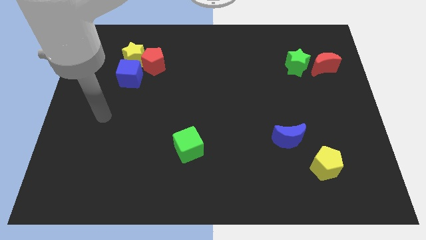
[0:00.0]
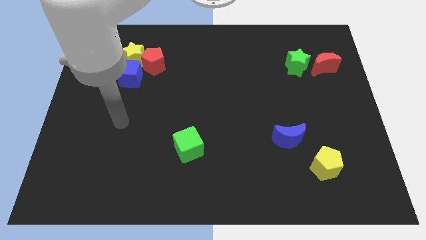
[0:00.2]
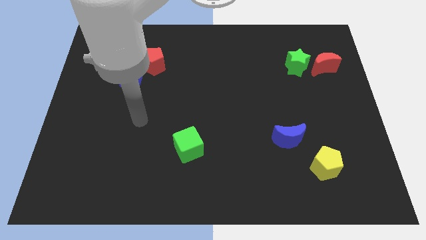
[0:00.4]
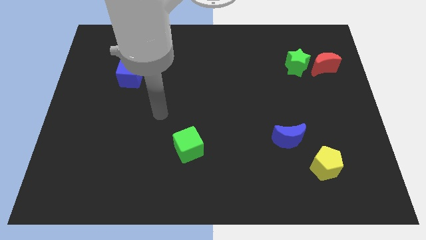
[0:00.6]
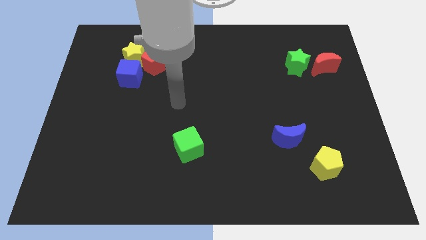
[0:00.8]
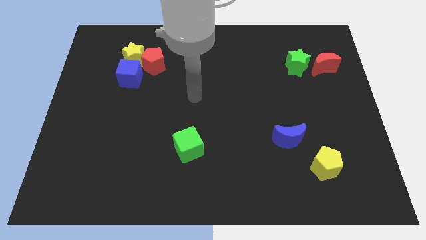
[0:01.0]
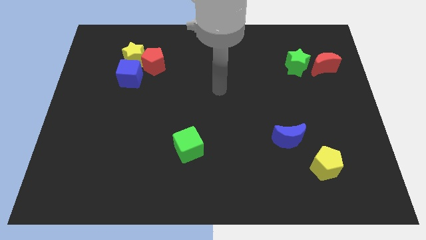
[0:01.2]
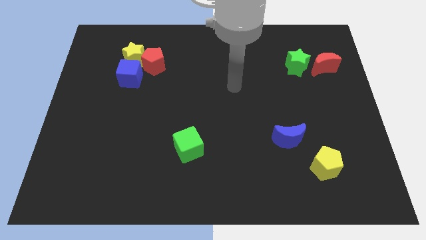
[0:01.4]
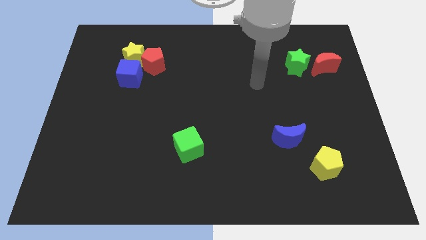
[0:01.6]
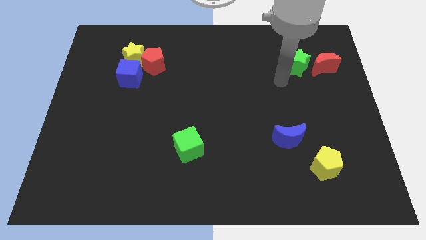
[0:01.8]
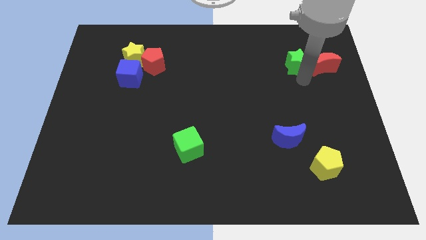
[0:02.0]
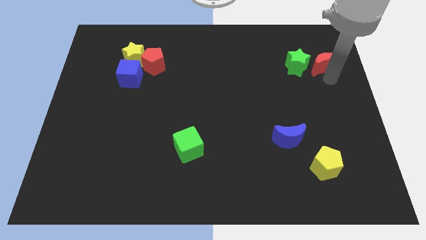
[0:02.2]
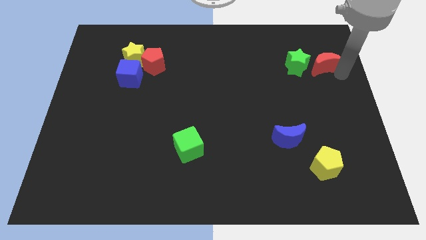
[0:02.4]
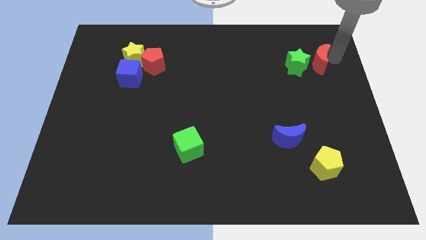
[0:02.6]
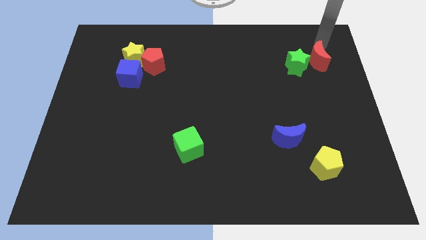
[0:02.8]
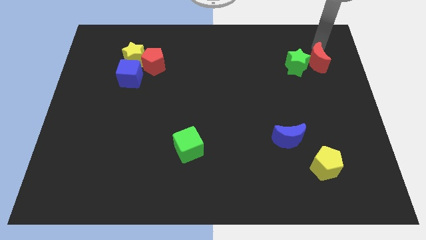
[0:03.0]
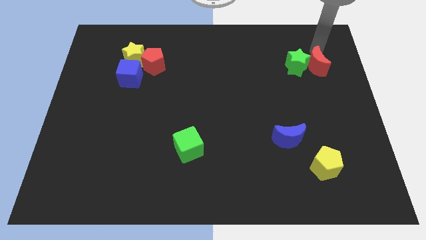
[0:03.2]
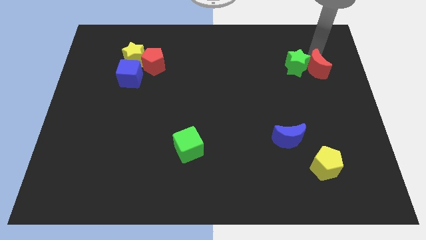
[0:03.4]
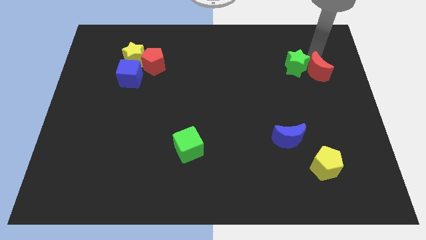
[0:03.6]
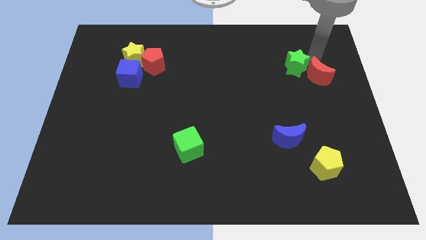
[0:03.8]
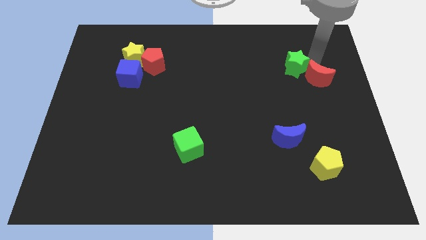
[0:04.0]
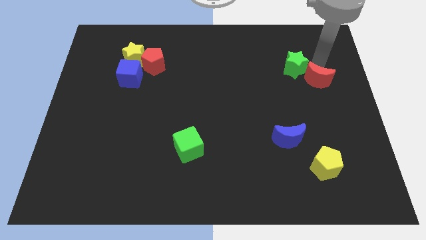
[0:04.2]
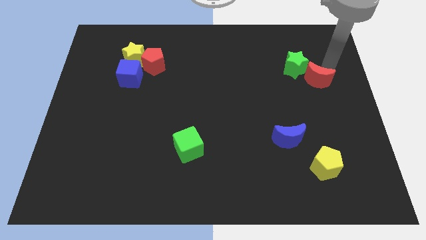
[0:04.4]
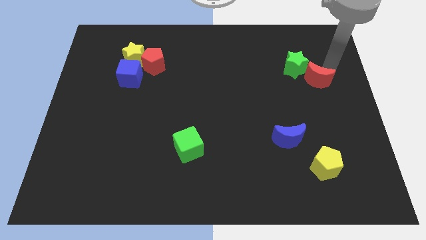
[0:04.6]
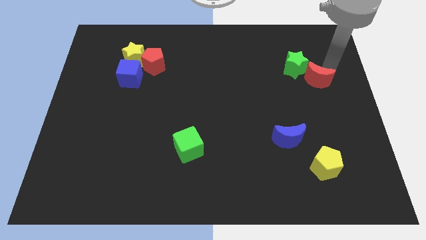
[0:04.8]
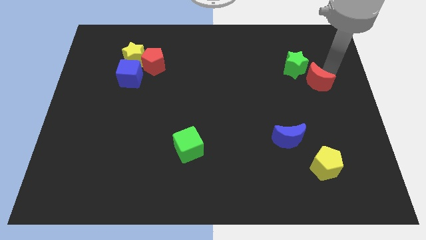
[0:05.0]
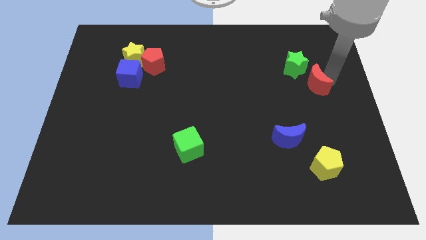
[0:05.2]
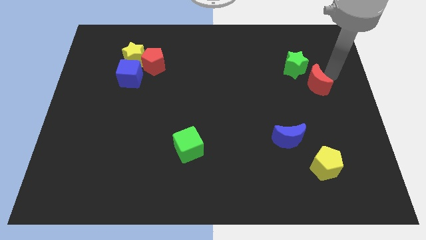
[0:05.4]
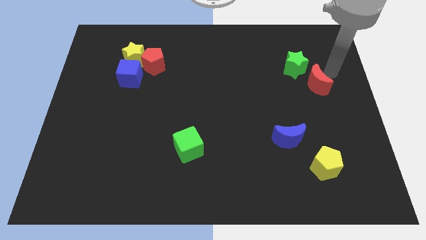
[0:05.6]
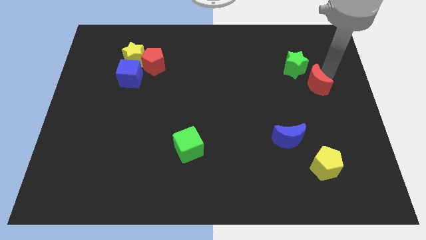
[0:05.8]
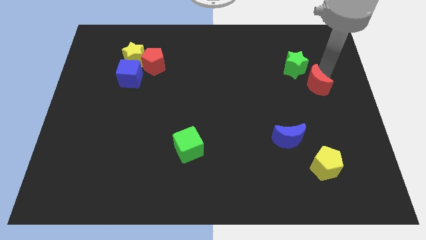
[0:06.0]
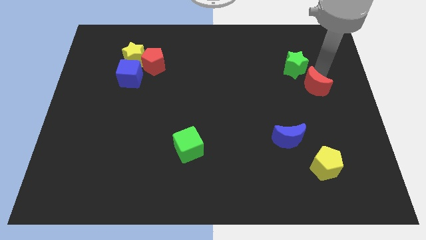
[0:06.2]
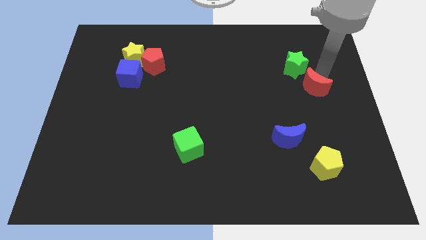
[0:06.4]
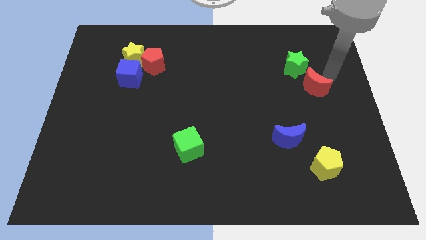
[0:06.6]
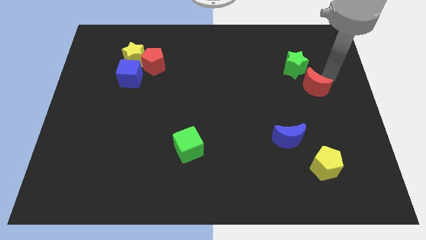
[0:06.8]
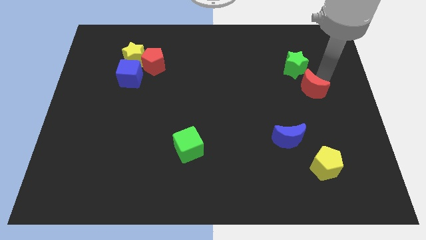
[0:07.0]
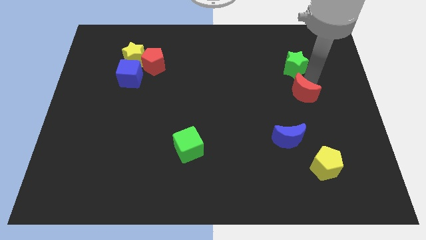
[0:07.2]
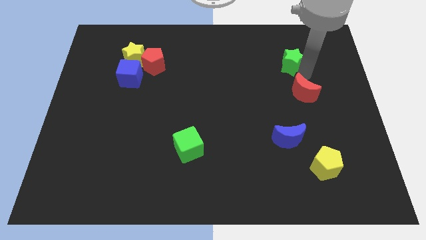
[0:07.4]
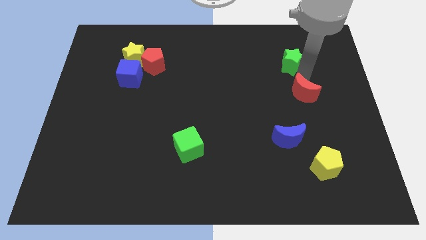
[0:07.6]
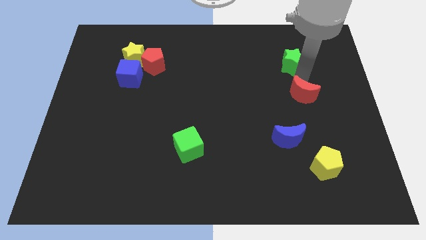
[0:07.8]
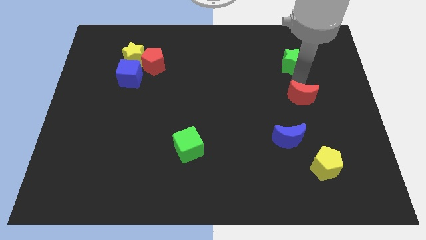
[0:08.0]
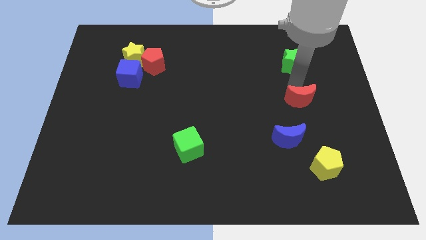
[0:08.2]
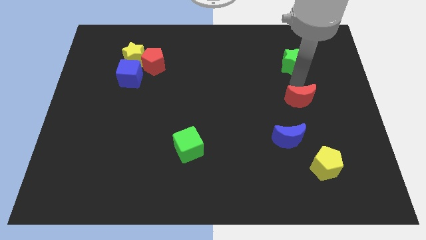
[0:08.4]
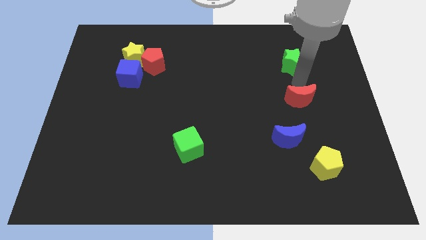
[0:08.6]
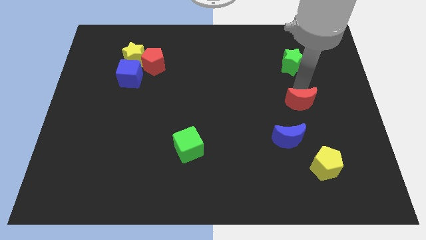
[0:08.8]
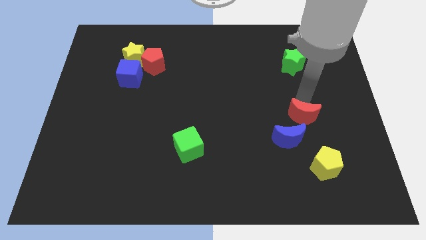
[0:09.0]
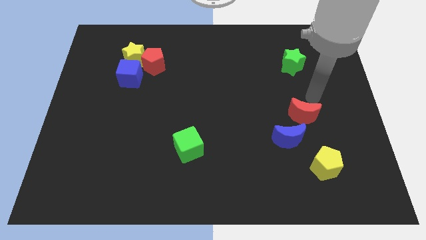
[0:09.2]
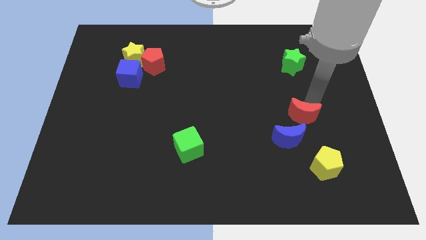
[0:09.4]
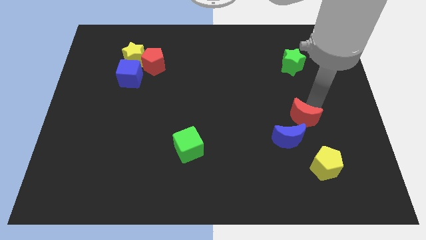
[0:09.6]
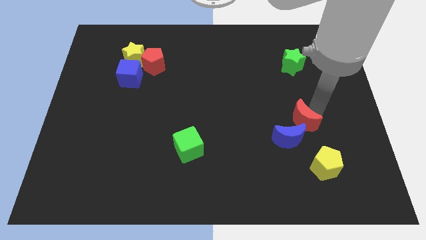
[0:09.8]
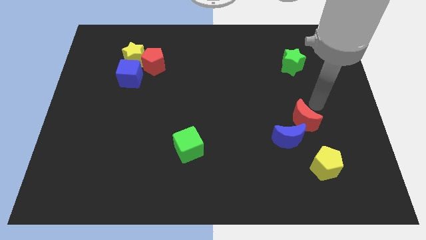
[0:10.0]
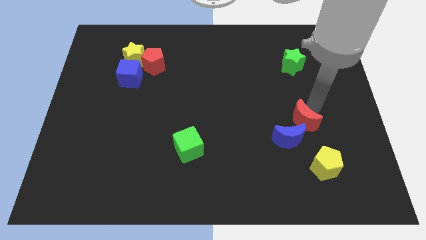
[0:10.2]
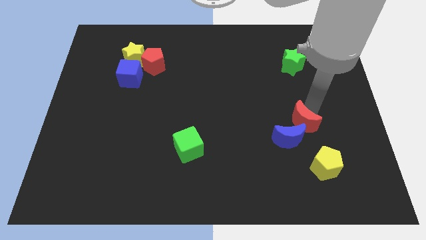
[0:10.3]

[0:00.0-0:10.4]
put the red moon close to the blue moon

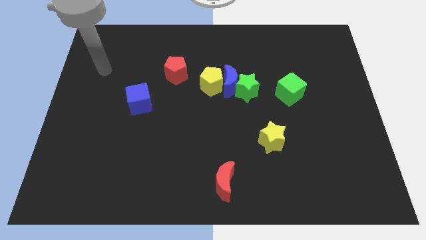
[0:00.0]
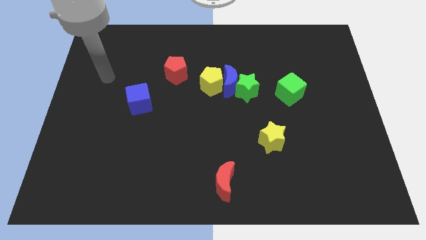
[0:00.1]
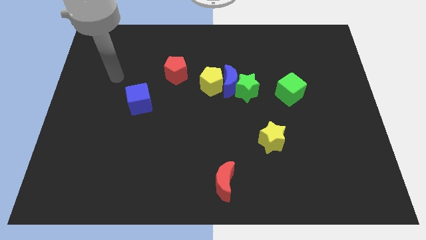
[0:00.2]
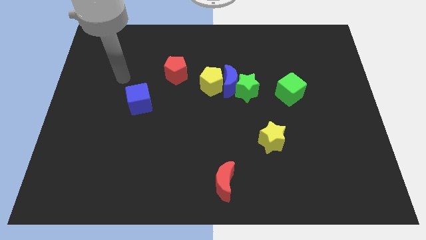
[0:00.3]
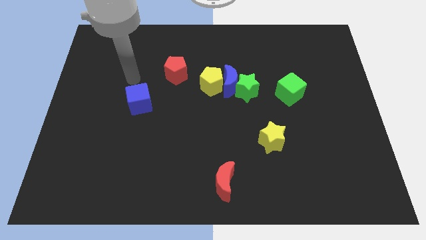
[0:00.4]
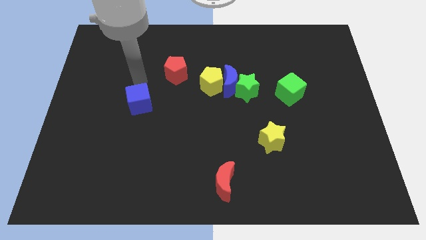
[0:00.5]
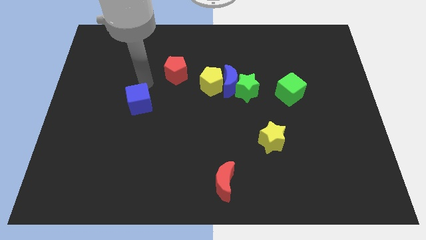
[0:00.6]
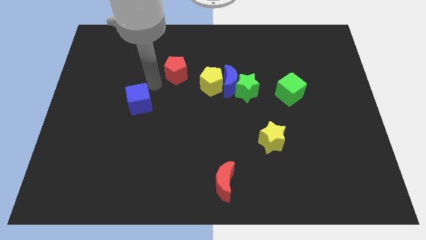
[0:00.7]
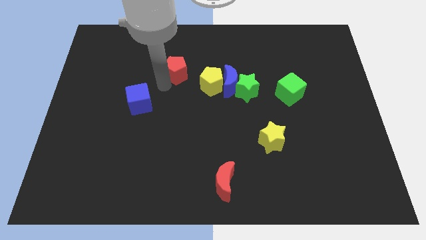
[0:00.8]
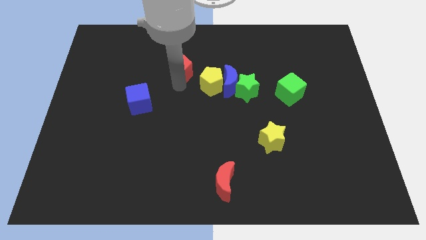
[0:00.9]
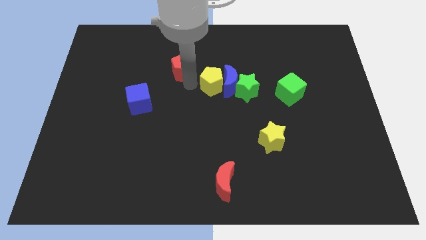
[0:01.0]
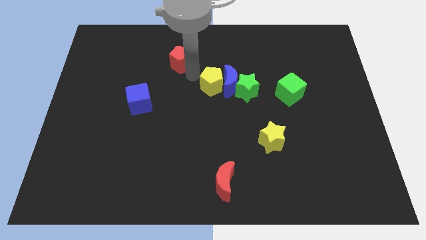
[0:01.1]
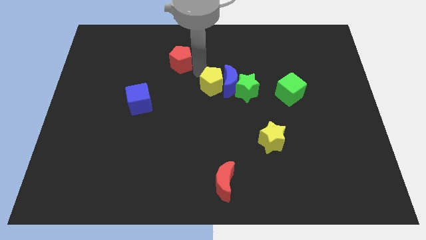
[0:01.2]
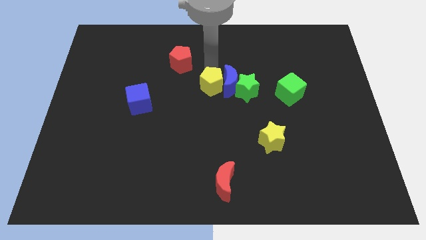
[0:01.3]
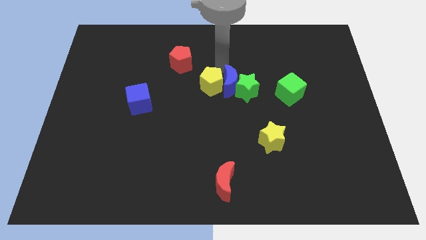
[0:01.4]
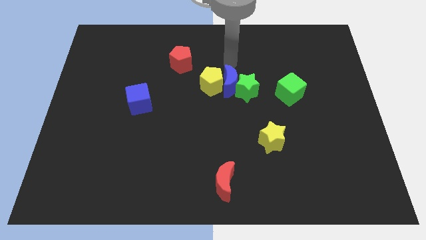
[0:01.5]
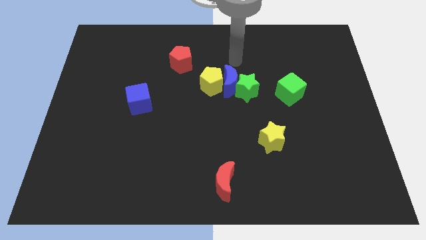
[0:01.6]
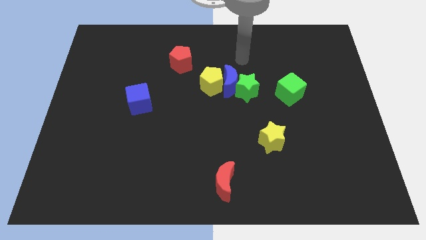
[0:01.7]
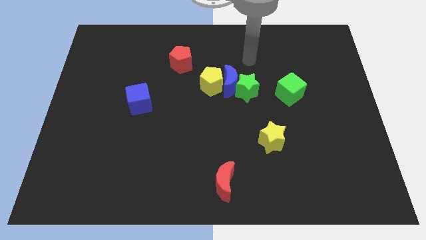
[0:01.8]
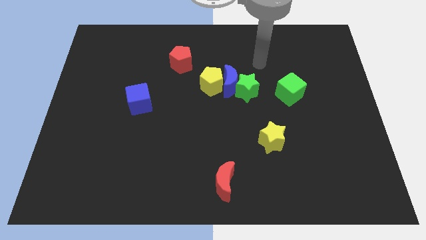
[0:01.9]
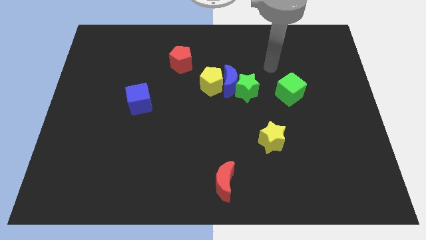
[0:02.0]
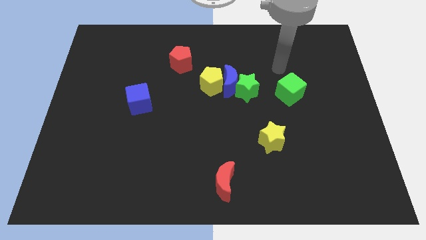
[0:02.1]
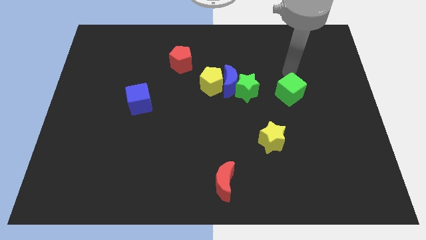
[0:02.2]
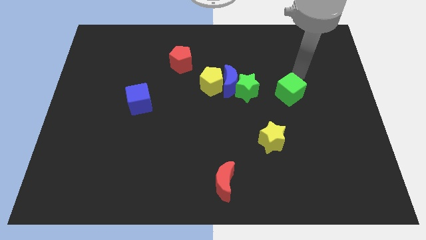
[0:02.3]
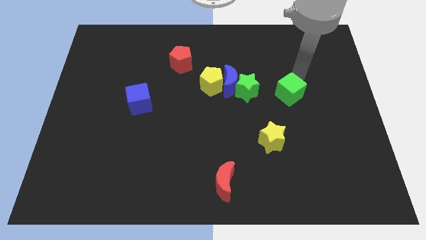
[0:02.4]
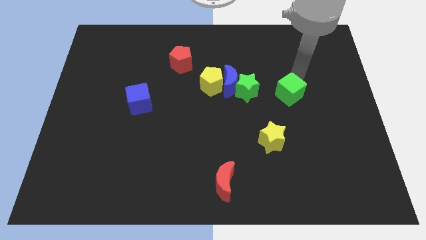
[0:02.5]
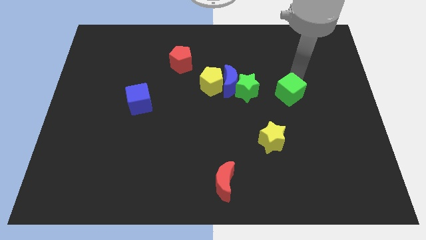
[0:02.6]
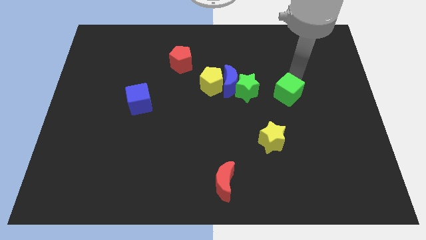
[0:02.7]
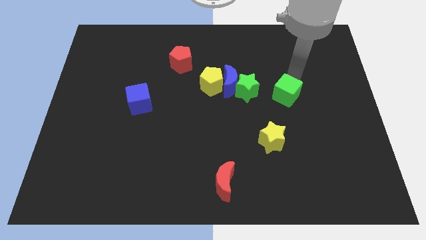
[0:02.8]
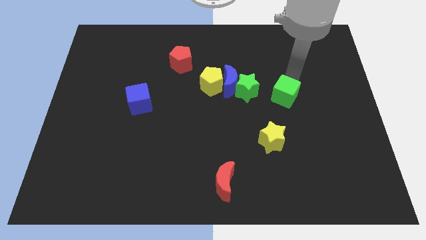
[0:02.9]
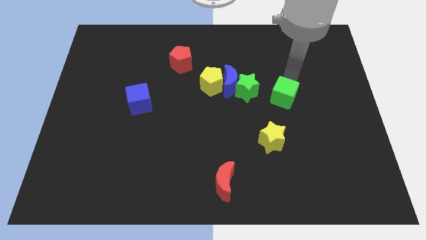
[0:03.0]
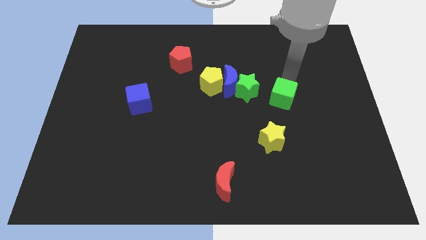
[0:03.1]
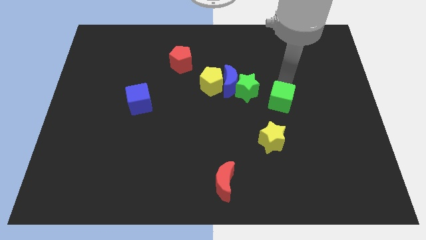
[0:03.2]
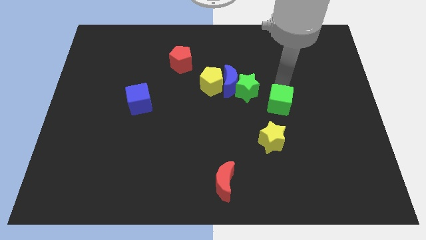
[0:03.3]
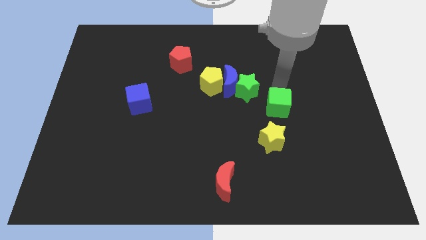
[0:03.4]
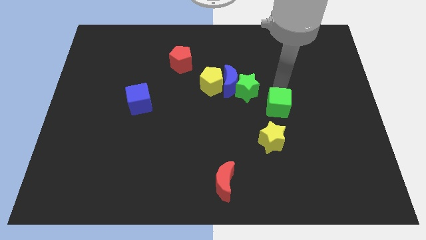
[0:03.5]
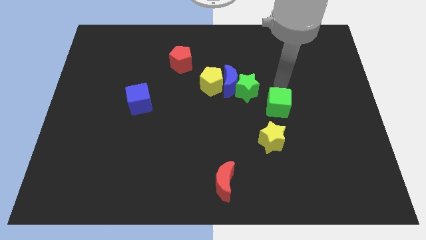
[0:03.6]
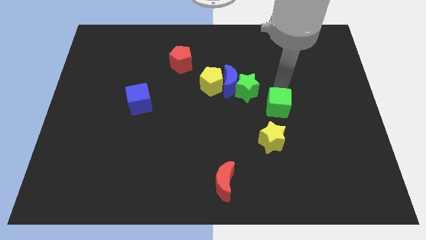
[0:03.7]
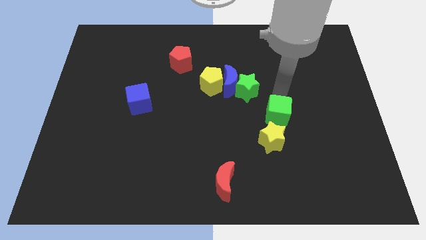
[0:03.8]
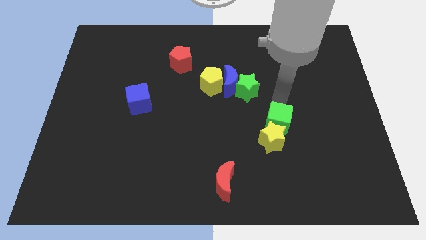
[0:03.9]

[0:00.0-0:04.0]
slide the green cube close to the yellow star
